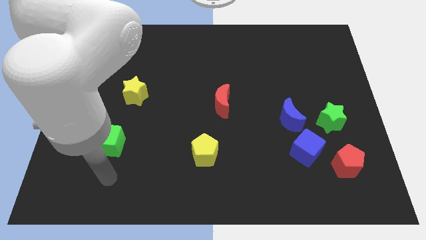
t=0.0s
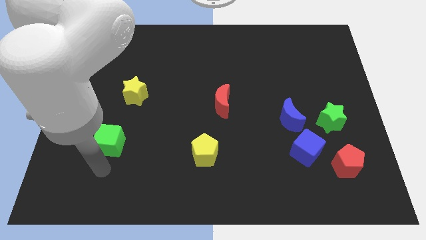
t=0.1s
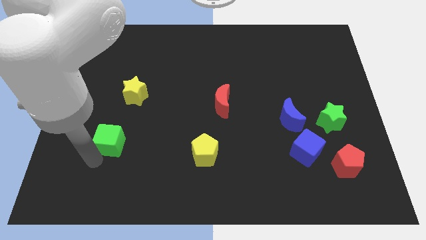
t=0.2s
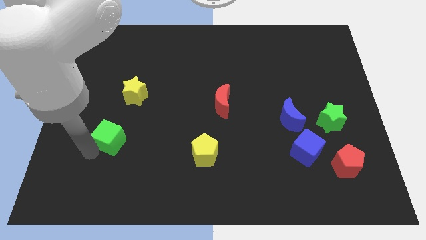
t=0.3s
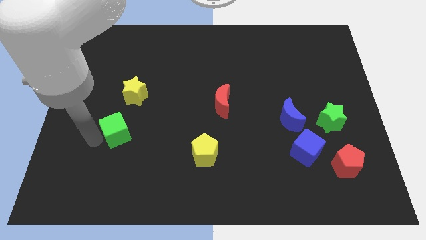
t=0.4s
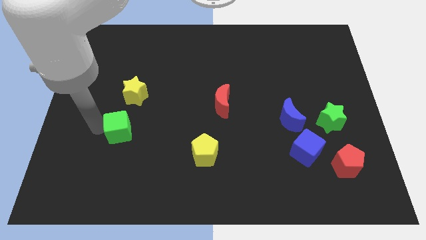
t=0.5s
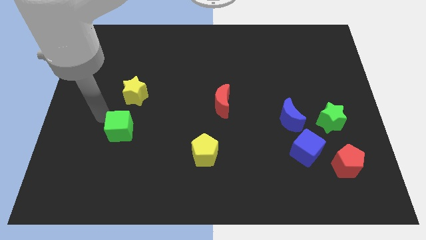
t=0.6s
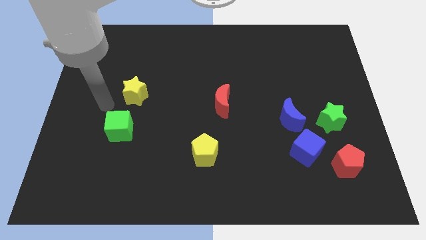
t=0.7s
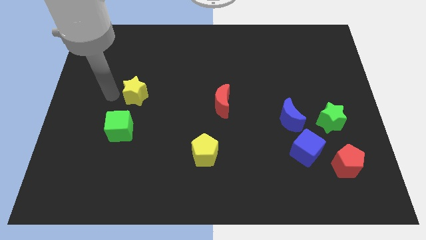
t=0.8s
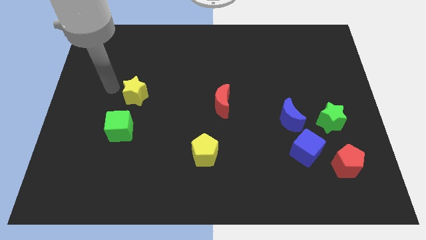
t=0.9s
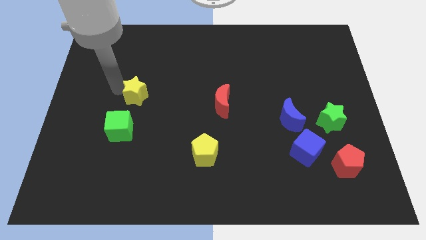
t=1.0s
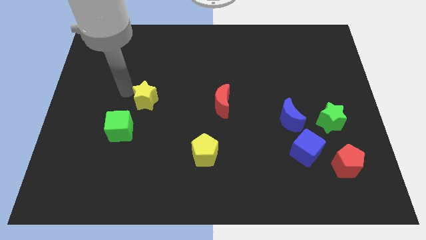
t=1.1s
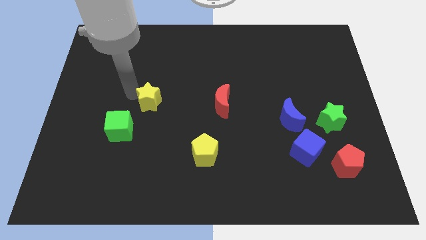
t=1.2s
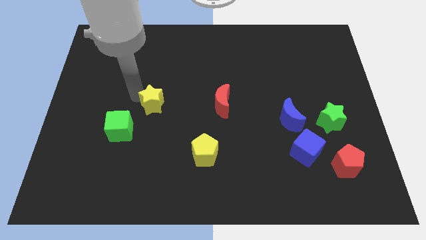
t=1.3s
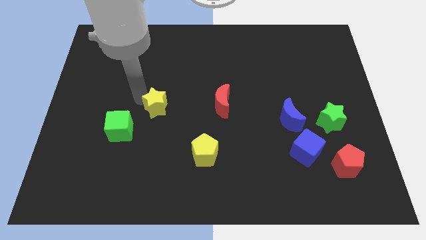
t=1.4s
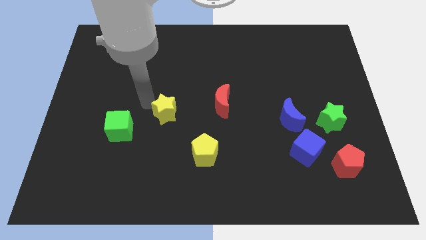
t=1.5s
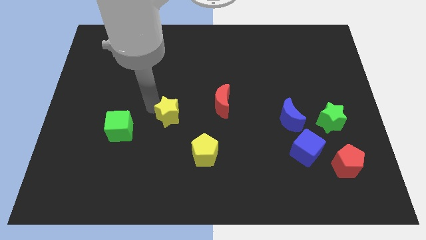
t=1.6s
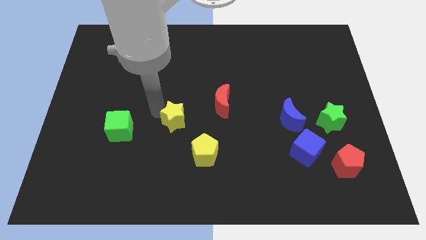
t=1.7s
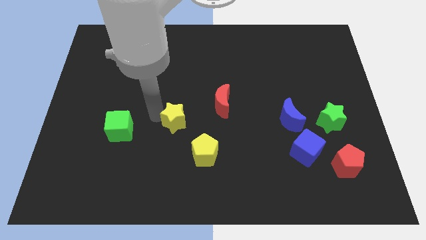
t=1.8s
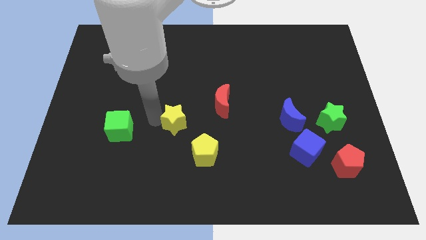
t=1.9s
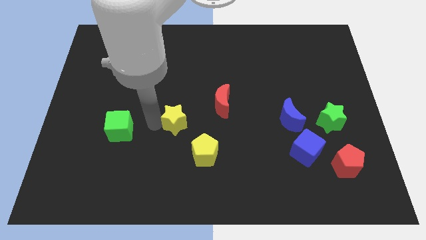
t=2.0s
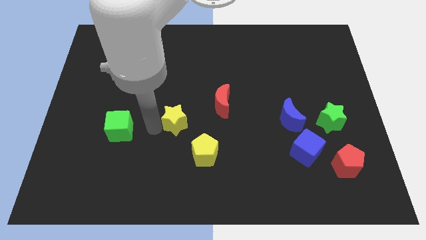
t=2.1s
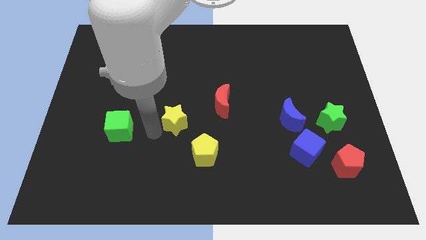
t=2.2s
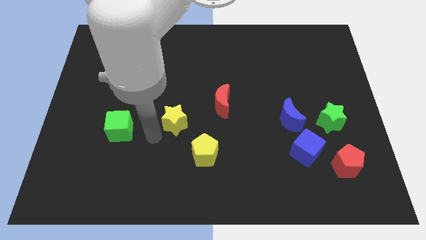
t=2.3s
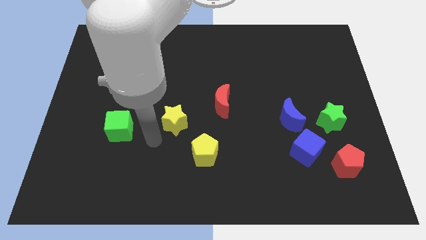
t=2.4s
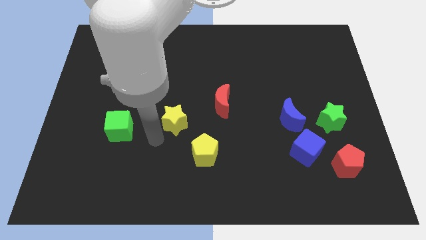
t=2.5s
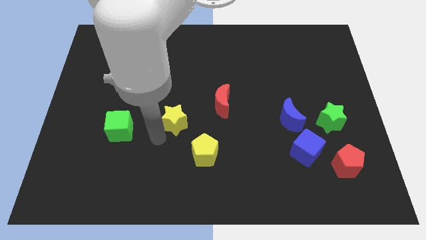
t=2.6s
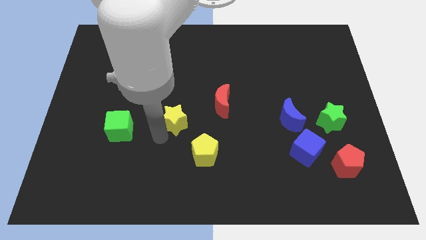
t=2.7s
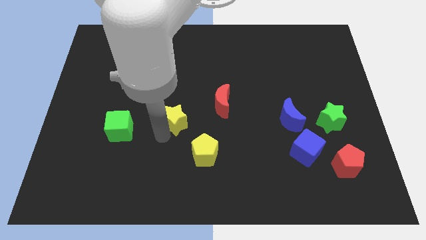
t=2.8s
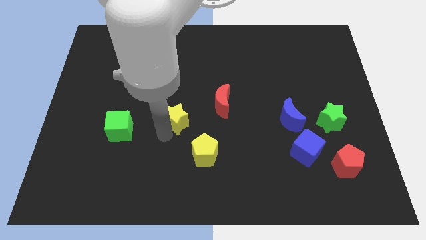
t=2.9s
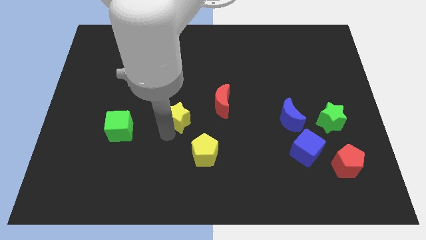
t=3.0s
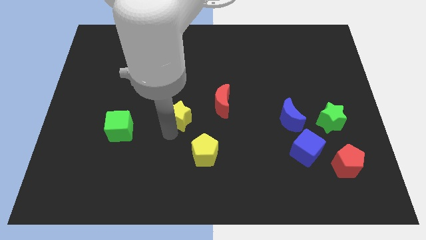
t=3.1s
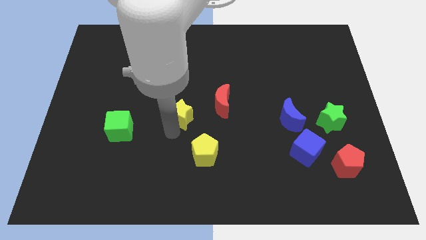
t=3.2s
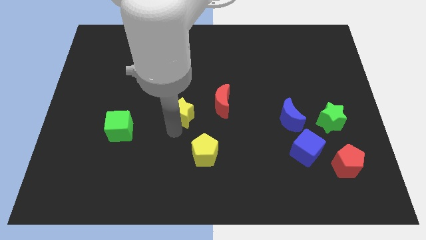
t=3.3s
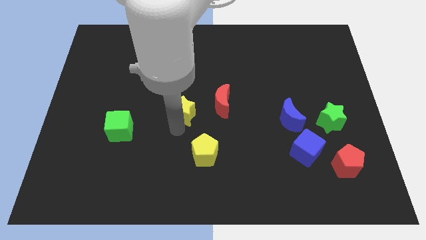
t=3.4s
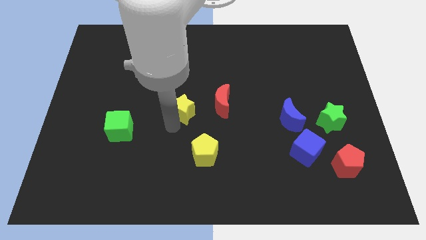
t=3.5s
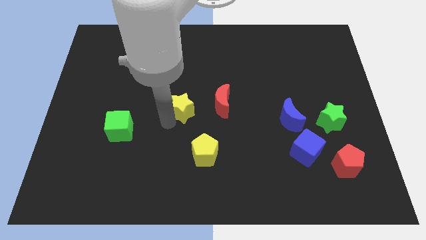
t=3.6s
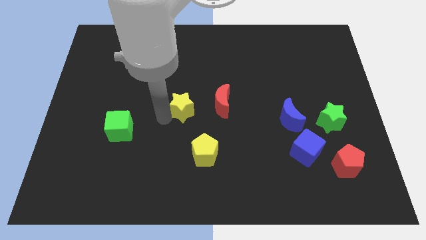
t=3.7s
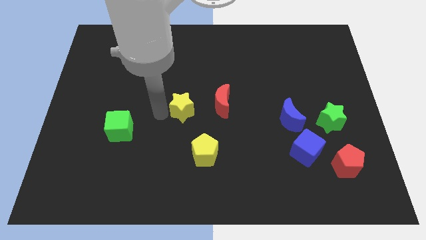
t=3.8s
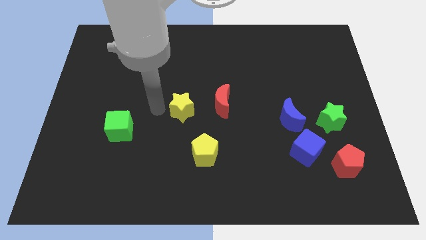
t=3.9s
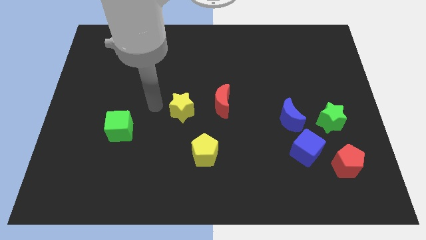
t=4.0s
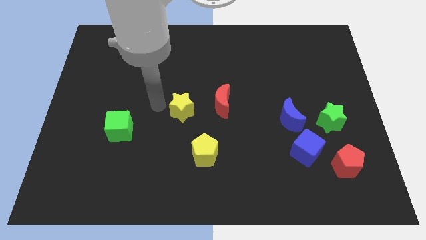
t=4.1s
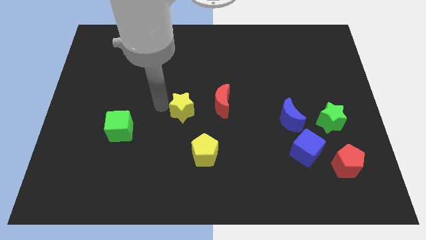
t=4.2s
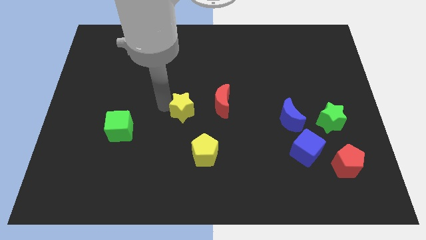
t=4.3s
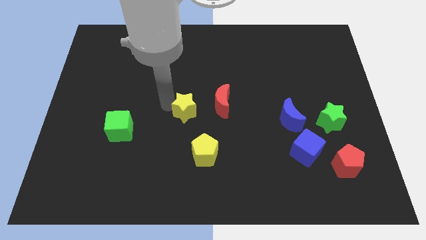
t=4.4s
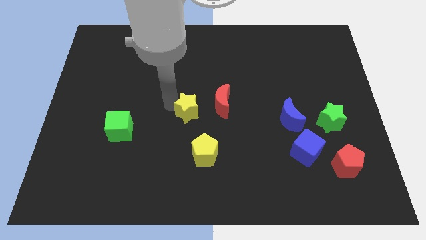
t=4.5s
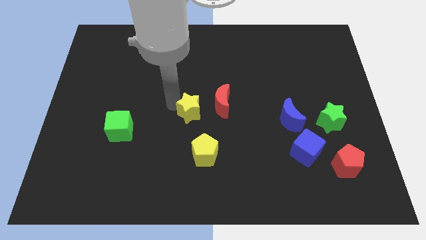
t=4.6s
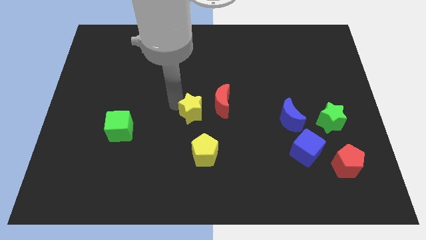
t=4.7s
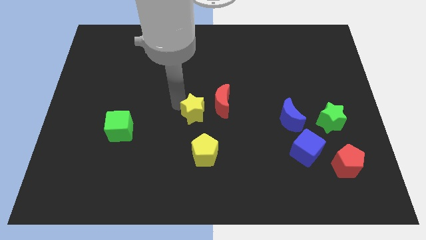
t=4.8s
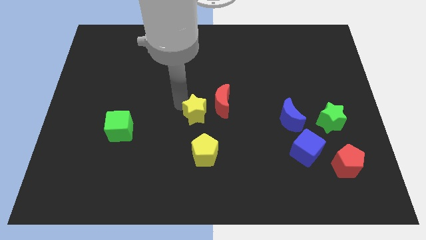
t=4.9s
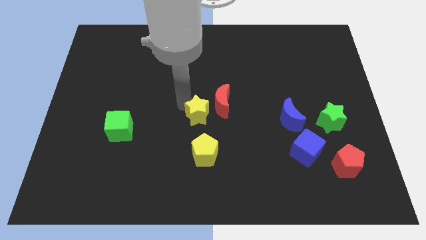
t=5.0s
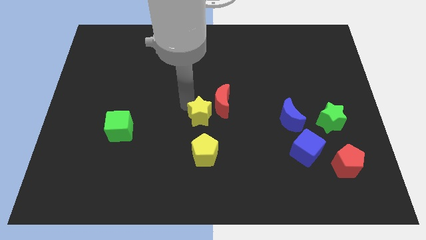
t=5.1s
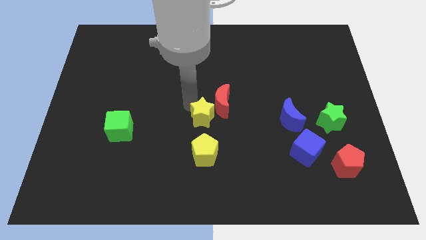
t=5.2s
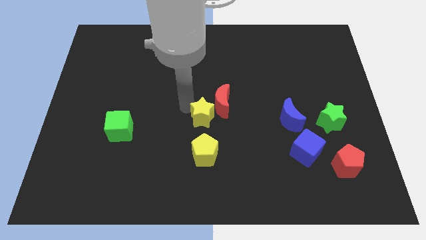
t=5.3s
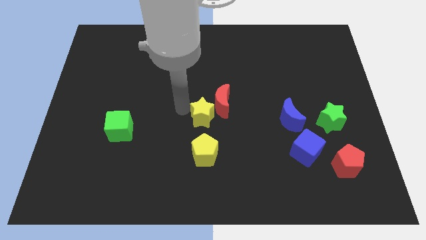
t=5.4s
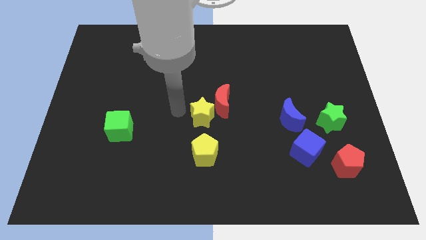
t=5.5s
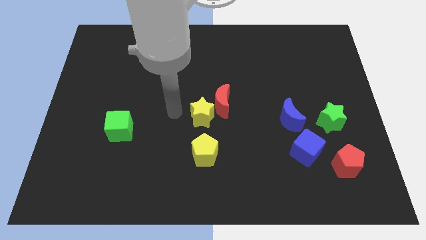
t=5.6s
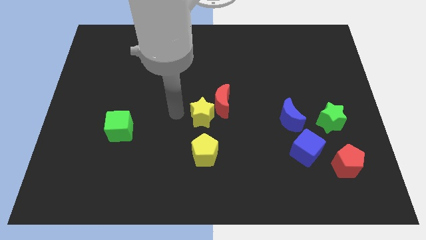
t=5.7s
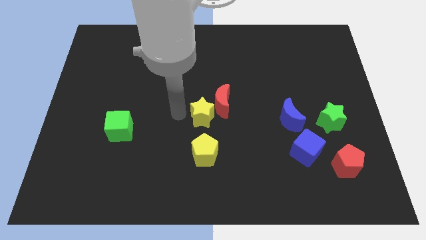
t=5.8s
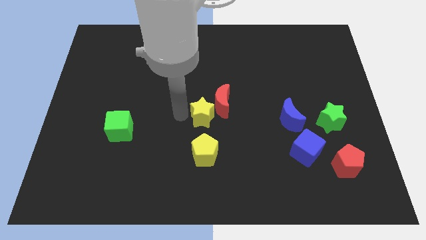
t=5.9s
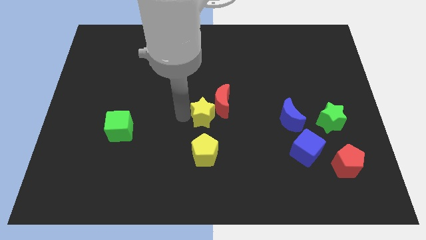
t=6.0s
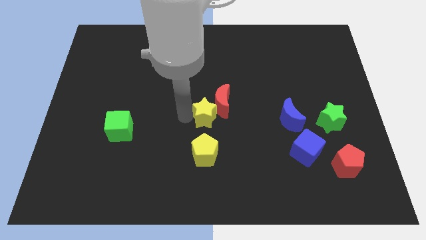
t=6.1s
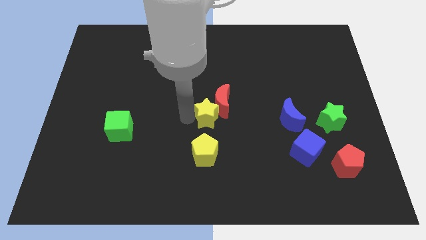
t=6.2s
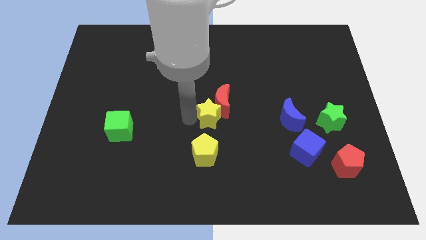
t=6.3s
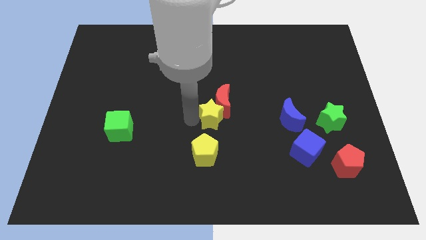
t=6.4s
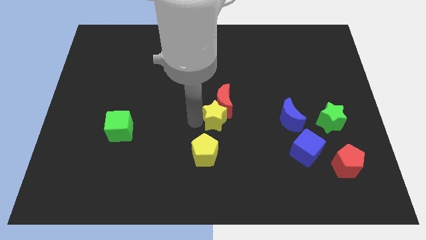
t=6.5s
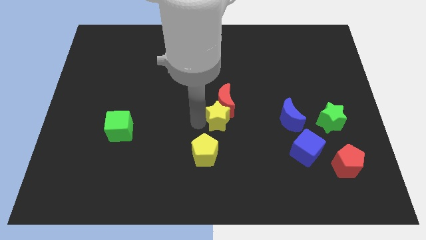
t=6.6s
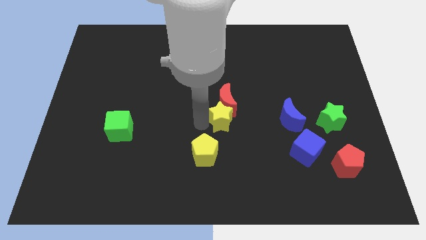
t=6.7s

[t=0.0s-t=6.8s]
push the yellow star just left of the blue moon
